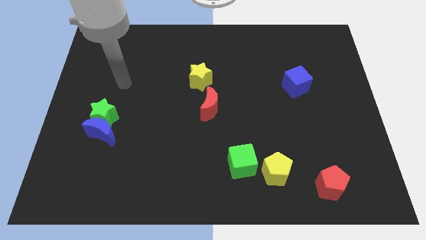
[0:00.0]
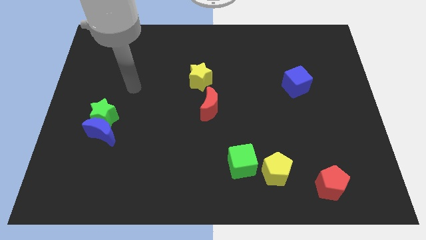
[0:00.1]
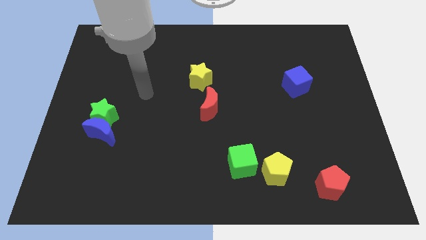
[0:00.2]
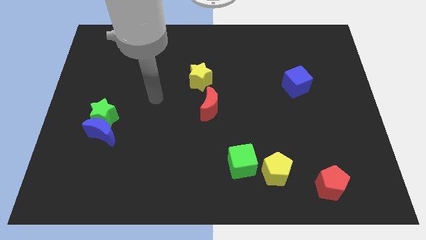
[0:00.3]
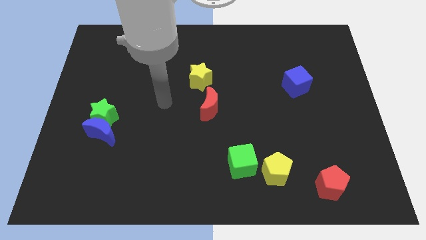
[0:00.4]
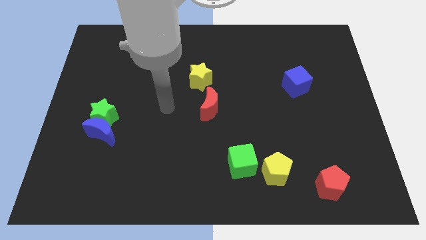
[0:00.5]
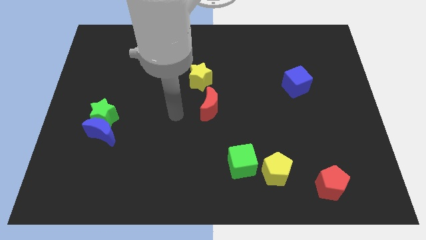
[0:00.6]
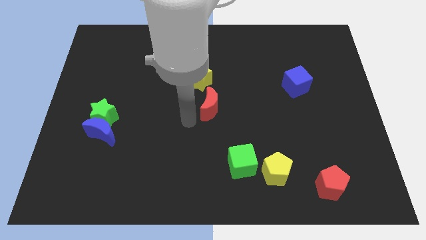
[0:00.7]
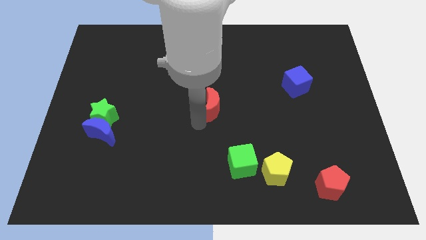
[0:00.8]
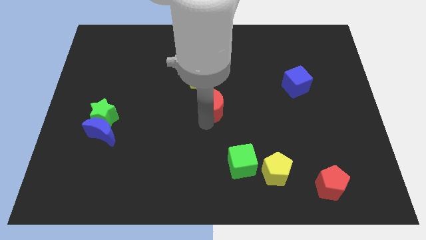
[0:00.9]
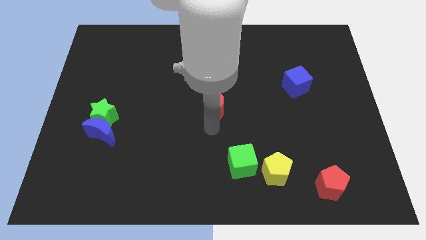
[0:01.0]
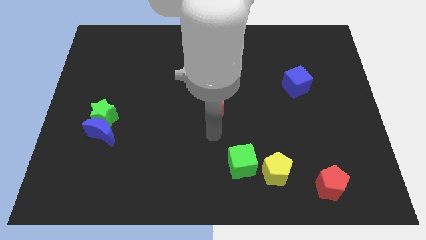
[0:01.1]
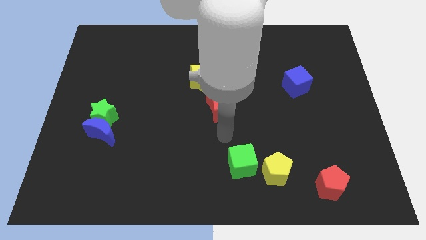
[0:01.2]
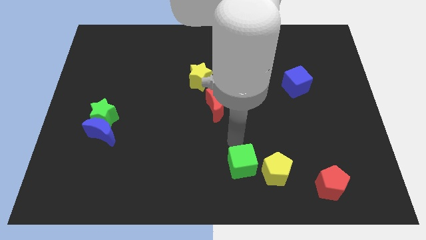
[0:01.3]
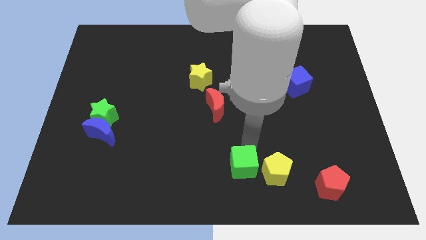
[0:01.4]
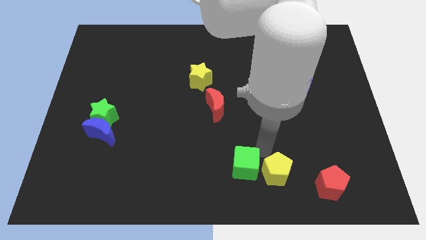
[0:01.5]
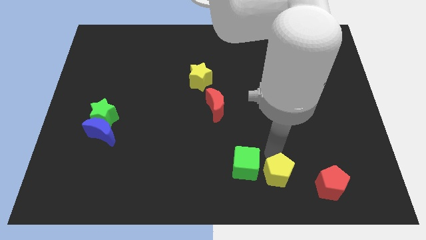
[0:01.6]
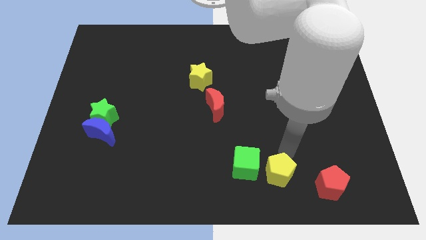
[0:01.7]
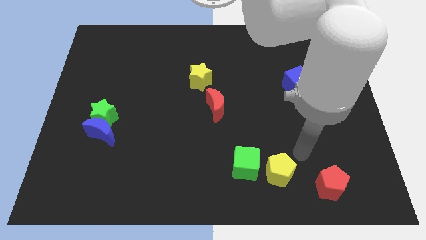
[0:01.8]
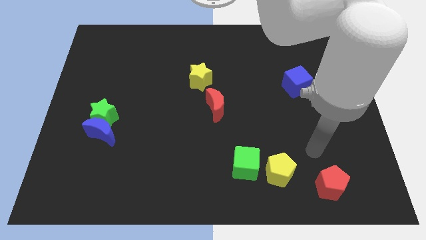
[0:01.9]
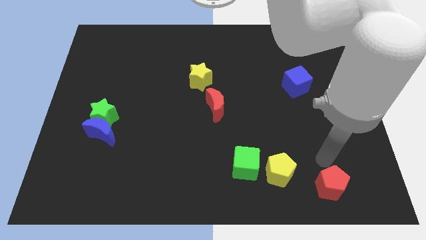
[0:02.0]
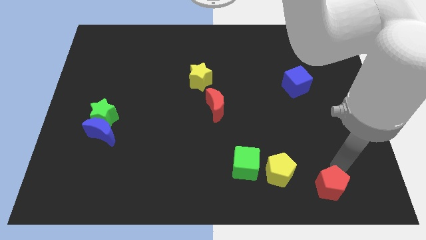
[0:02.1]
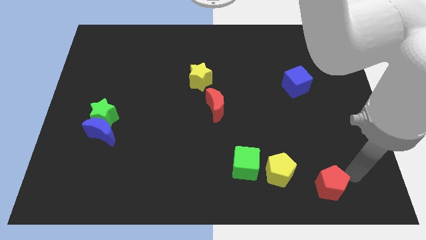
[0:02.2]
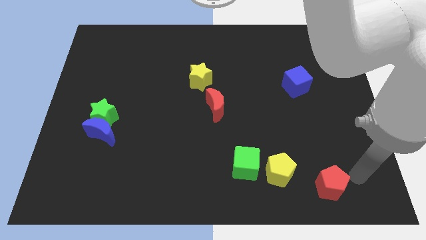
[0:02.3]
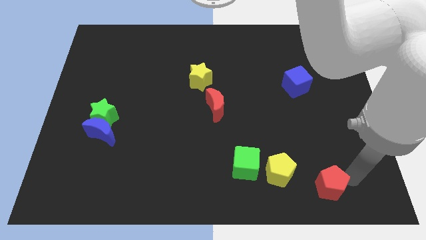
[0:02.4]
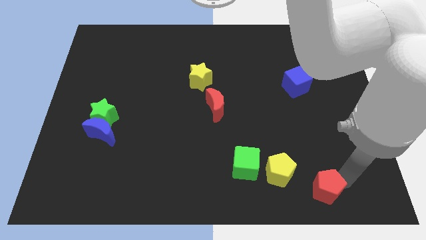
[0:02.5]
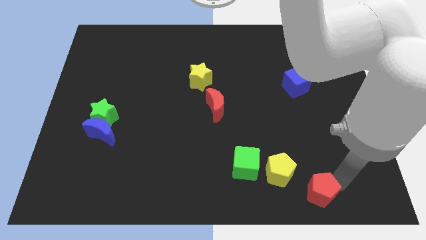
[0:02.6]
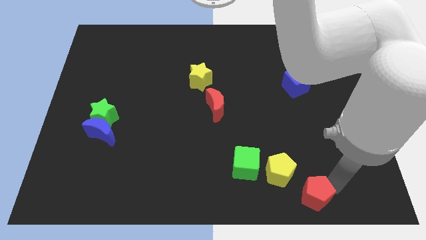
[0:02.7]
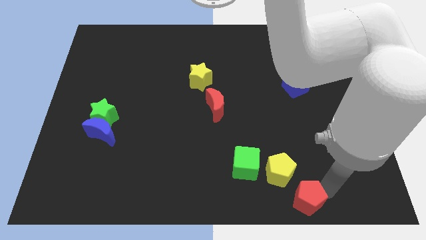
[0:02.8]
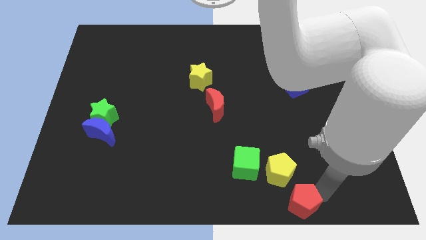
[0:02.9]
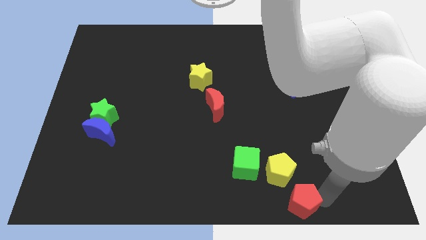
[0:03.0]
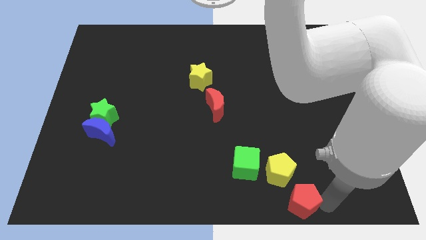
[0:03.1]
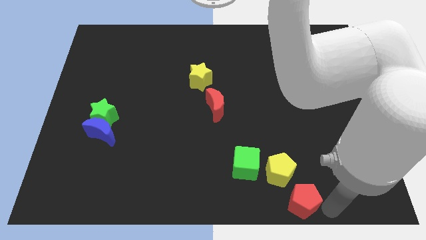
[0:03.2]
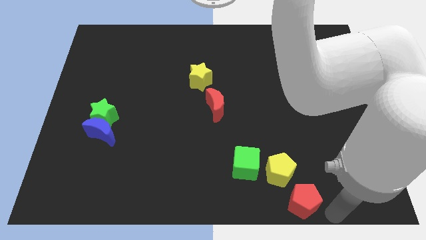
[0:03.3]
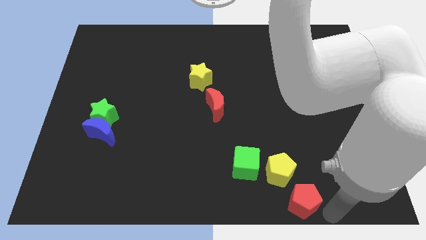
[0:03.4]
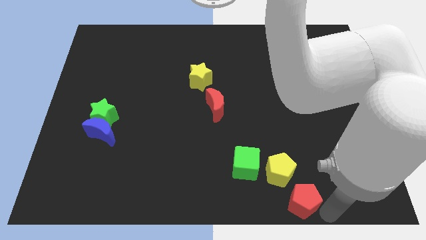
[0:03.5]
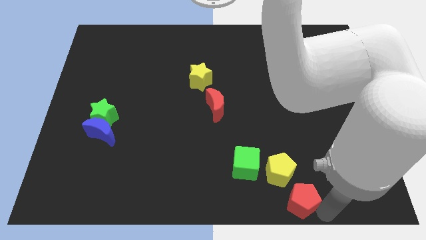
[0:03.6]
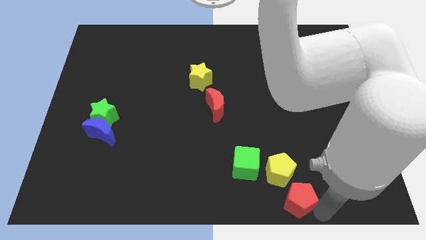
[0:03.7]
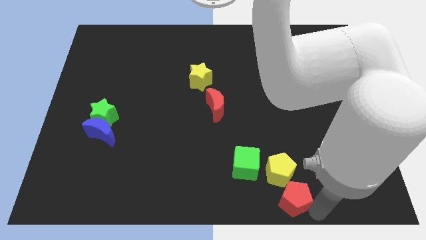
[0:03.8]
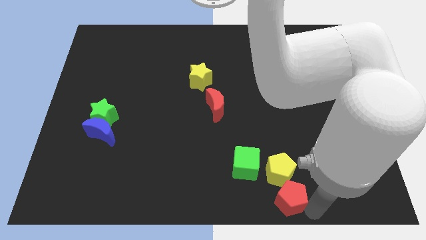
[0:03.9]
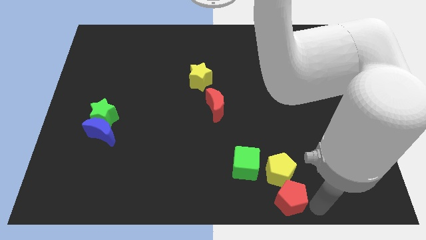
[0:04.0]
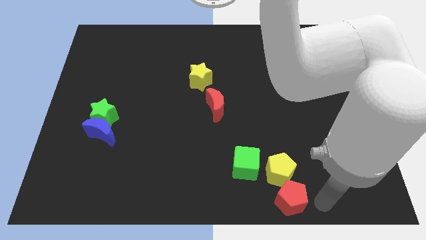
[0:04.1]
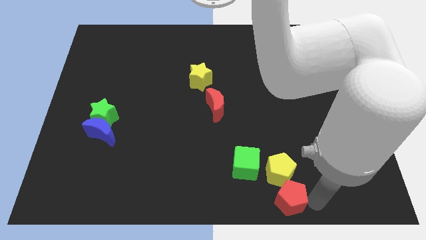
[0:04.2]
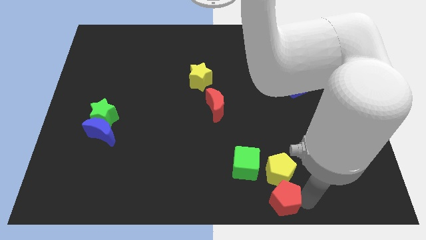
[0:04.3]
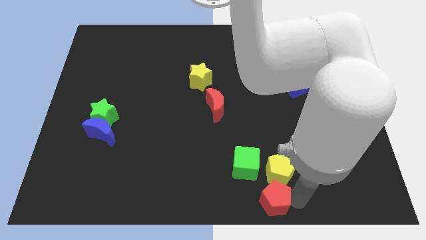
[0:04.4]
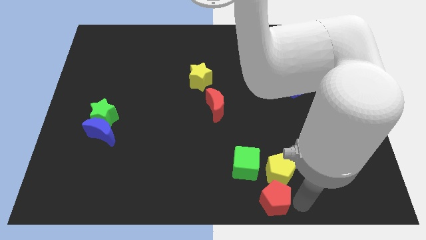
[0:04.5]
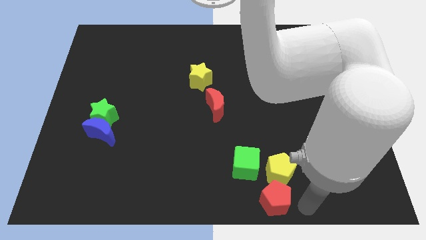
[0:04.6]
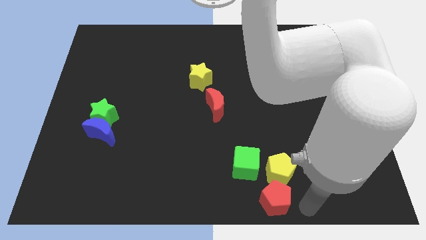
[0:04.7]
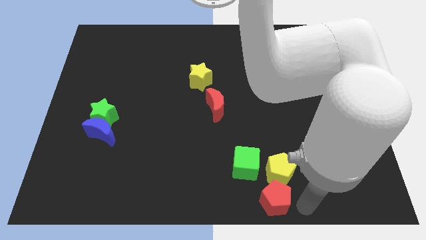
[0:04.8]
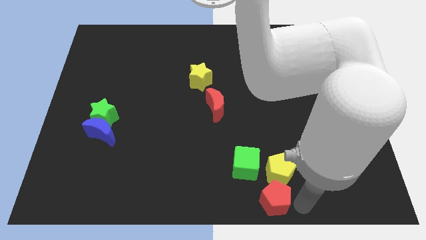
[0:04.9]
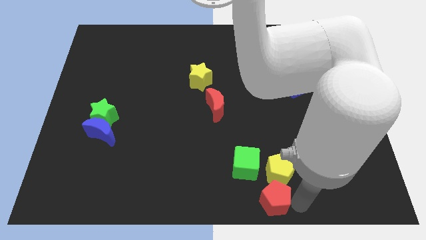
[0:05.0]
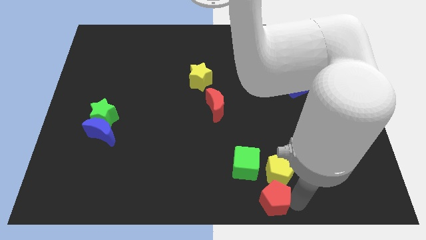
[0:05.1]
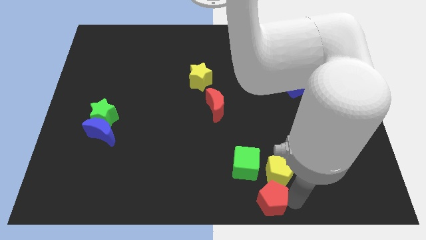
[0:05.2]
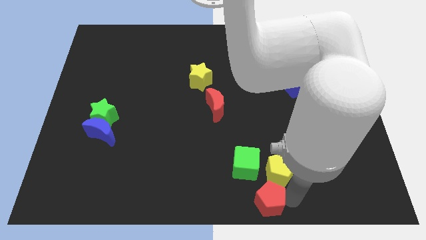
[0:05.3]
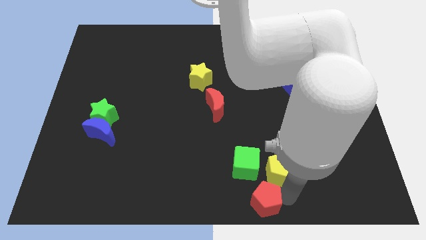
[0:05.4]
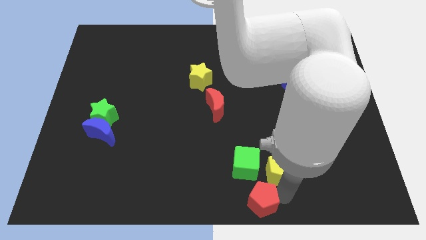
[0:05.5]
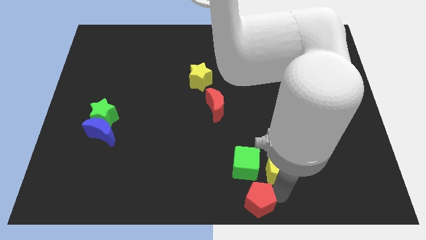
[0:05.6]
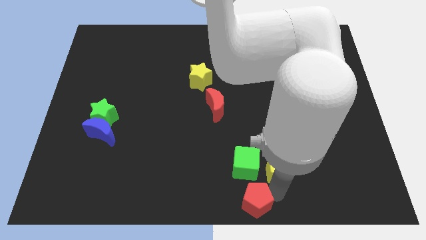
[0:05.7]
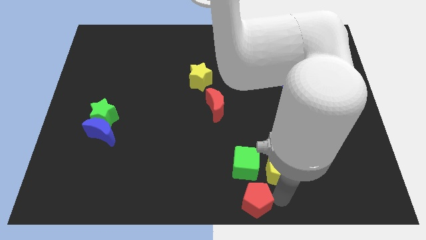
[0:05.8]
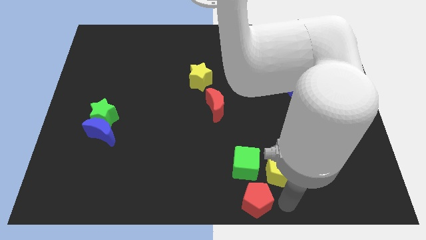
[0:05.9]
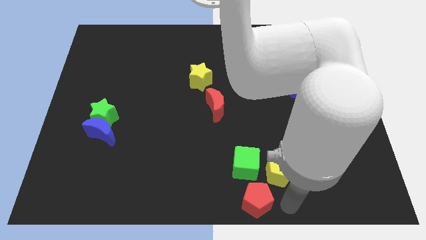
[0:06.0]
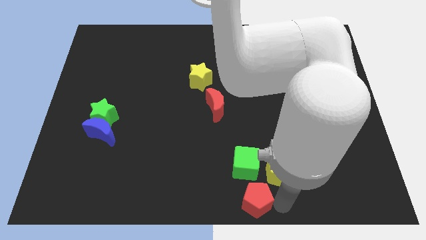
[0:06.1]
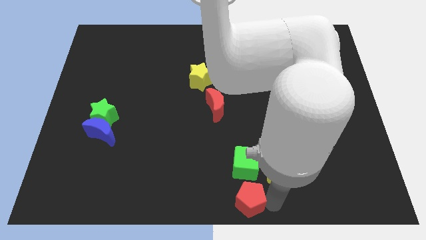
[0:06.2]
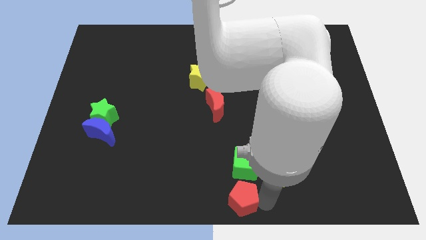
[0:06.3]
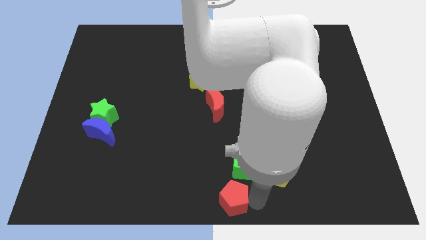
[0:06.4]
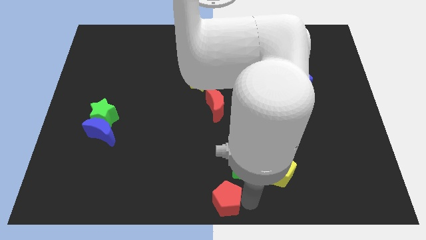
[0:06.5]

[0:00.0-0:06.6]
slide the red pentagon to the left

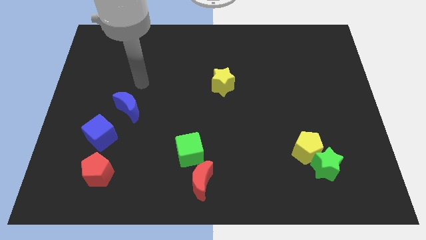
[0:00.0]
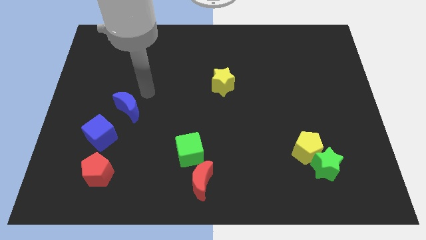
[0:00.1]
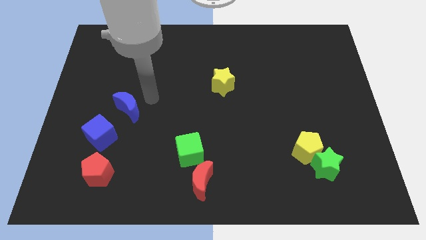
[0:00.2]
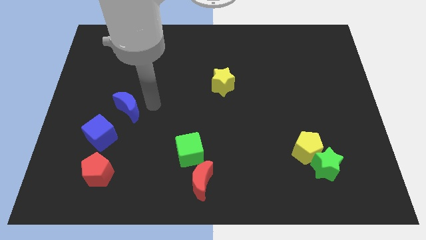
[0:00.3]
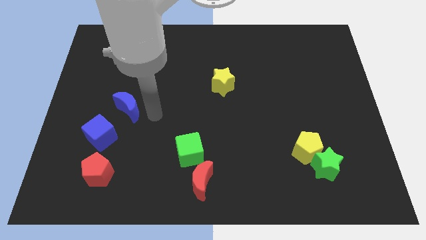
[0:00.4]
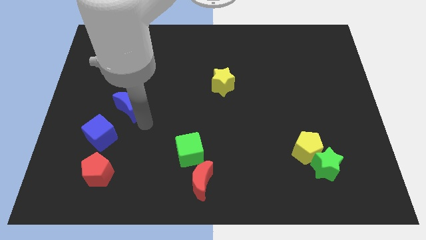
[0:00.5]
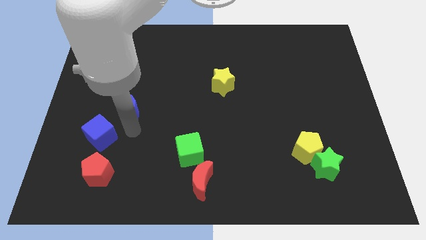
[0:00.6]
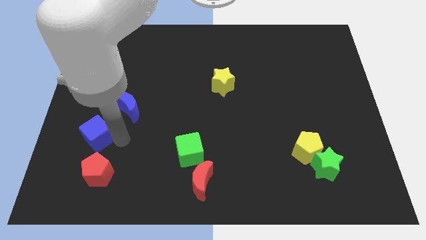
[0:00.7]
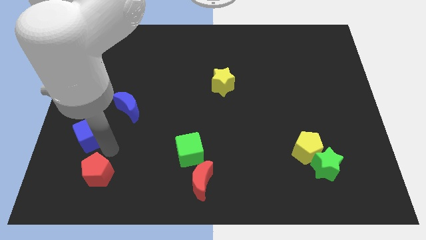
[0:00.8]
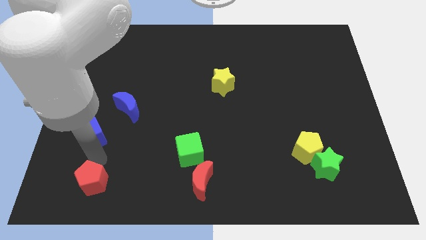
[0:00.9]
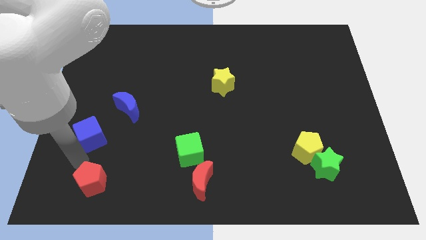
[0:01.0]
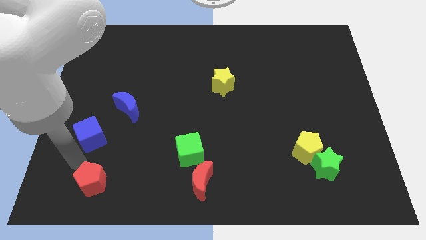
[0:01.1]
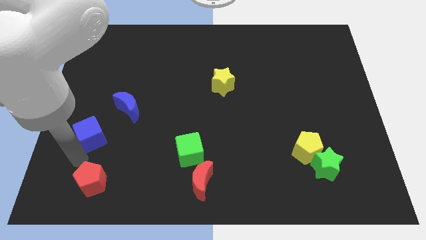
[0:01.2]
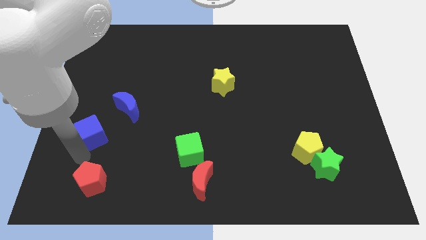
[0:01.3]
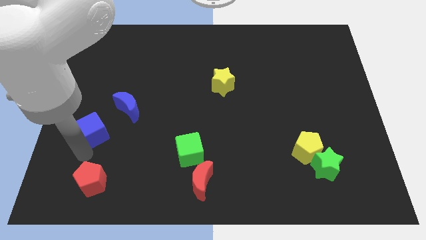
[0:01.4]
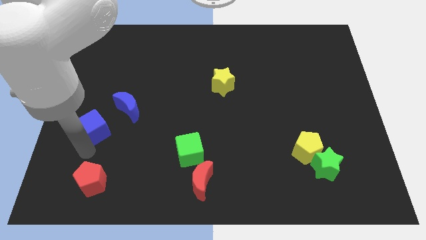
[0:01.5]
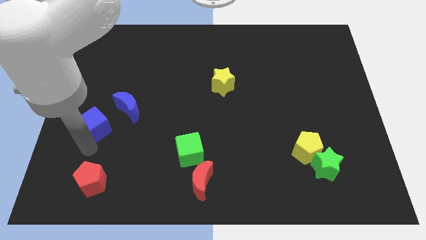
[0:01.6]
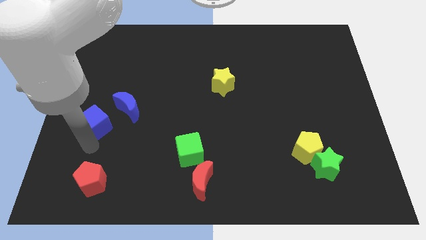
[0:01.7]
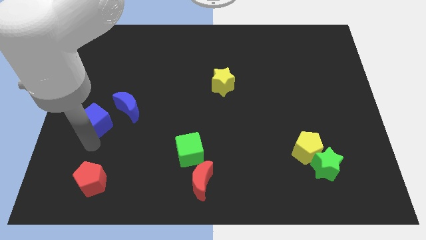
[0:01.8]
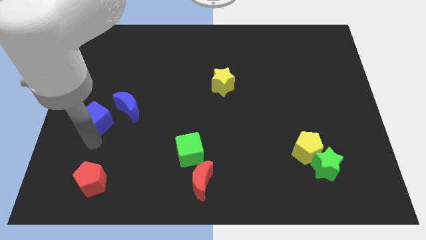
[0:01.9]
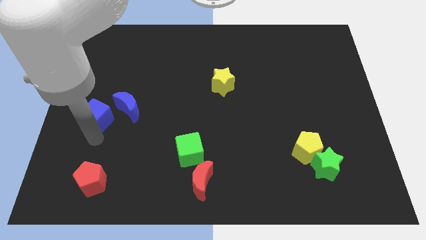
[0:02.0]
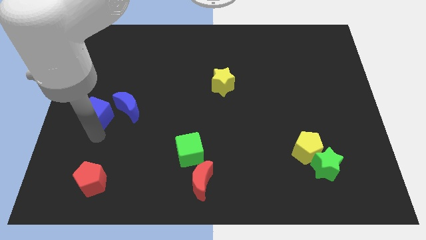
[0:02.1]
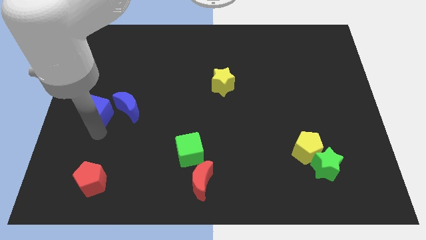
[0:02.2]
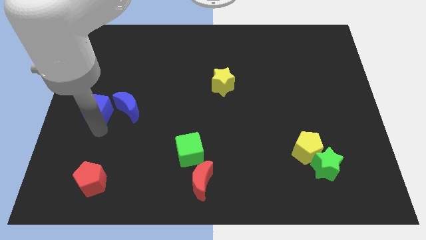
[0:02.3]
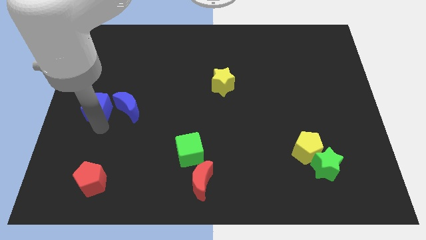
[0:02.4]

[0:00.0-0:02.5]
slide the blue cube a little upwards
